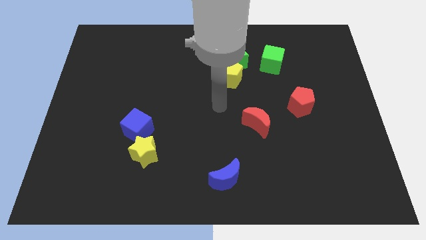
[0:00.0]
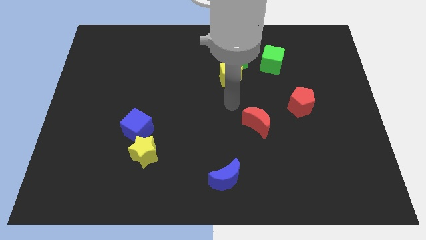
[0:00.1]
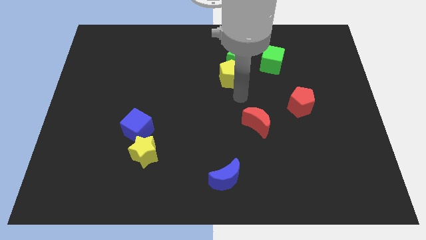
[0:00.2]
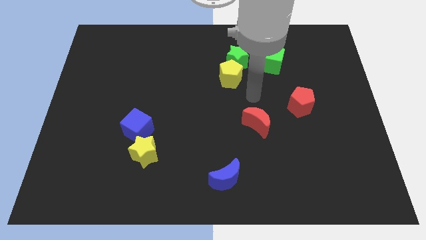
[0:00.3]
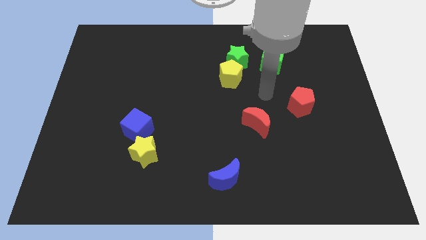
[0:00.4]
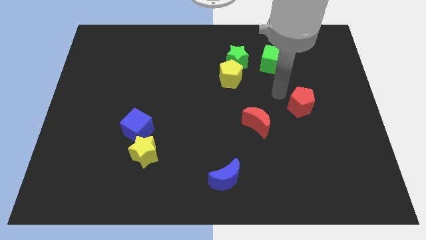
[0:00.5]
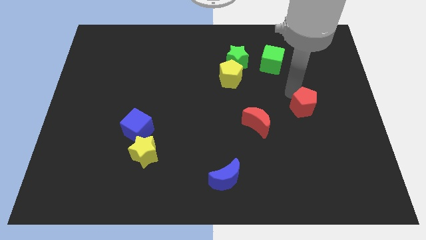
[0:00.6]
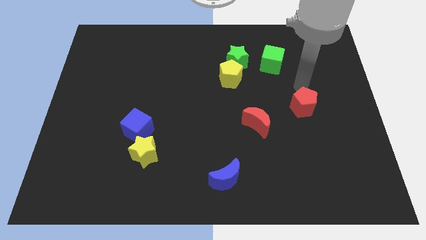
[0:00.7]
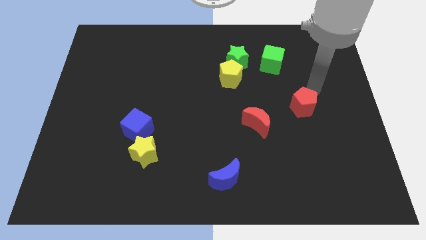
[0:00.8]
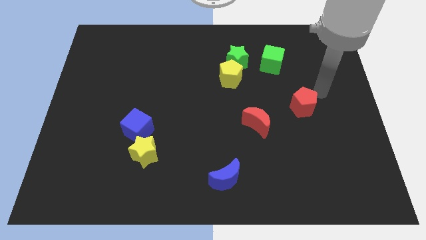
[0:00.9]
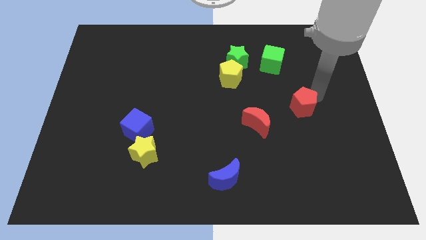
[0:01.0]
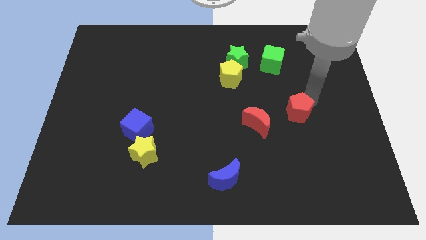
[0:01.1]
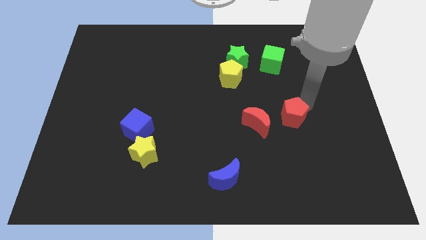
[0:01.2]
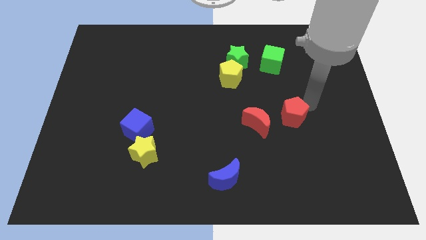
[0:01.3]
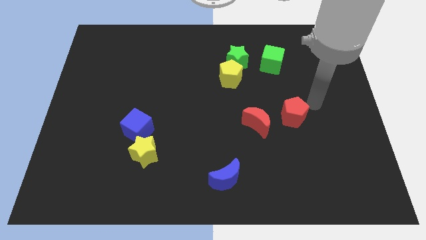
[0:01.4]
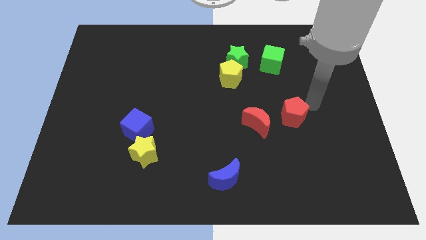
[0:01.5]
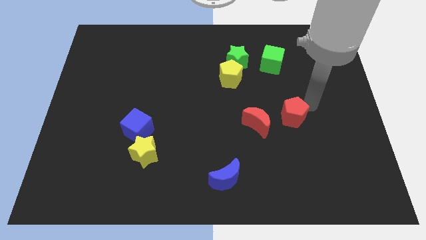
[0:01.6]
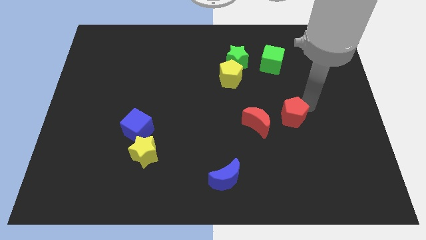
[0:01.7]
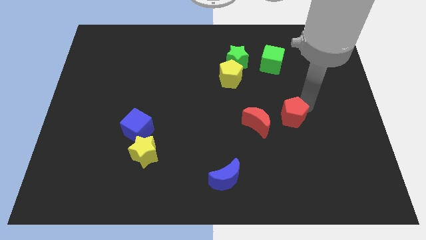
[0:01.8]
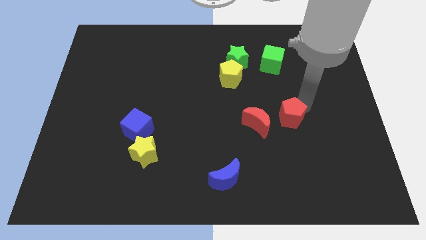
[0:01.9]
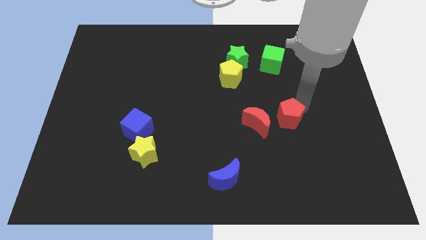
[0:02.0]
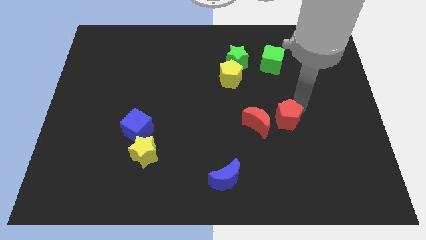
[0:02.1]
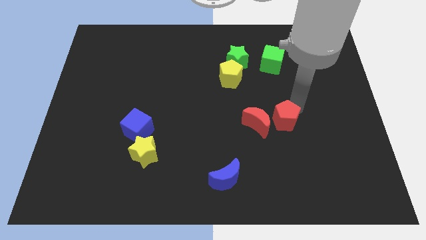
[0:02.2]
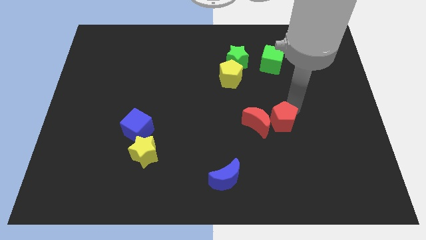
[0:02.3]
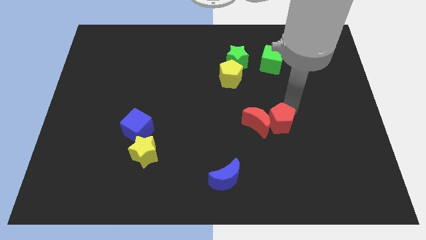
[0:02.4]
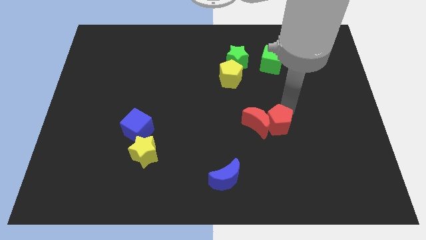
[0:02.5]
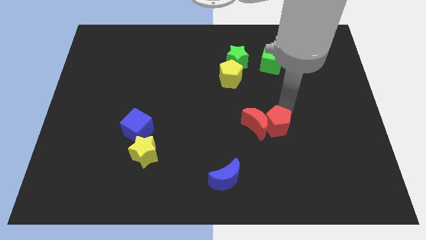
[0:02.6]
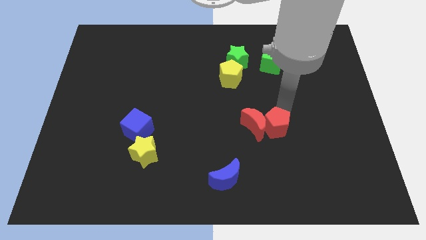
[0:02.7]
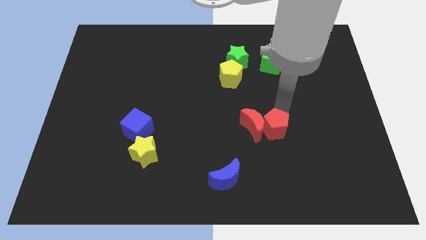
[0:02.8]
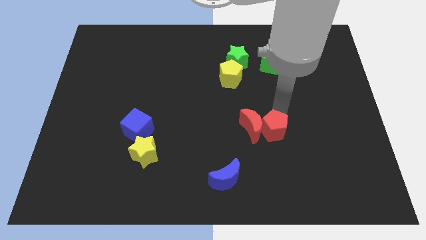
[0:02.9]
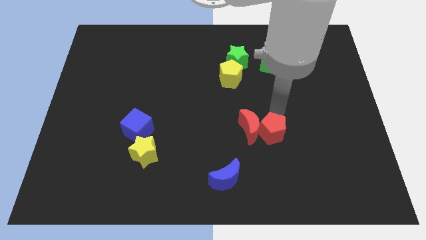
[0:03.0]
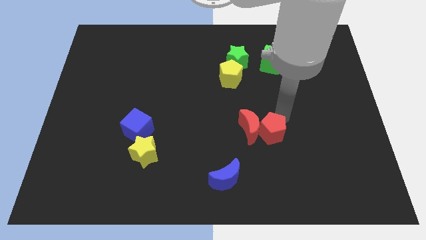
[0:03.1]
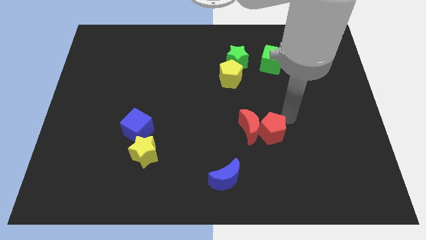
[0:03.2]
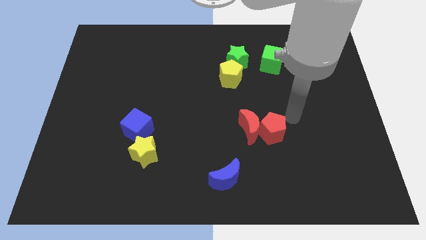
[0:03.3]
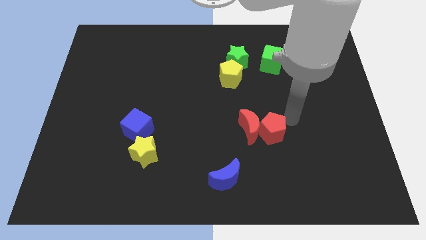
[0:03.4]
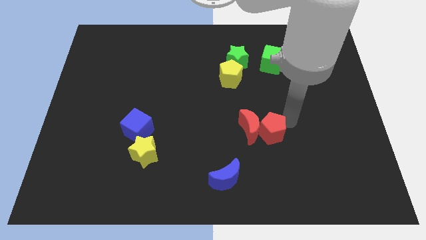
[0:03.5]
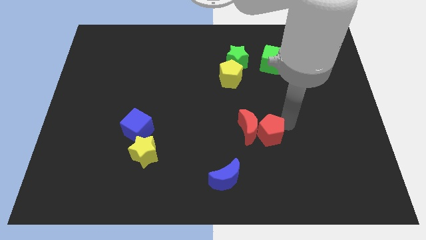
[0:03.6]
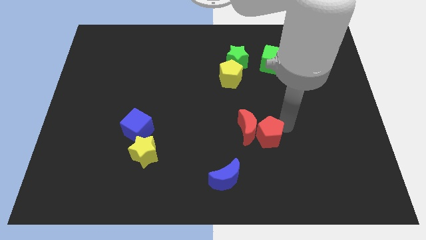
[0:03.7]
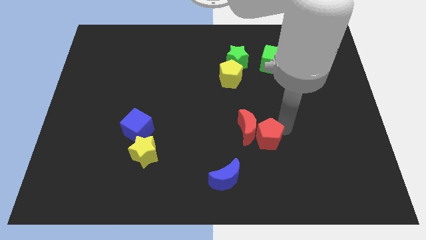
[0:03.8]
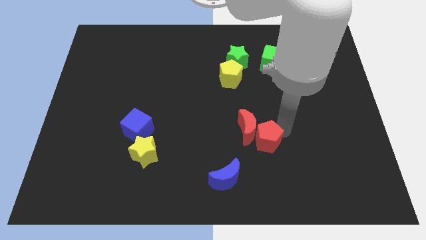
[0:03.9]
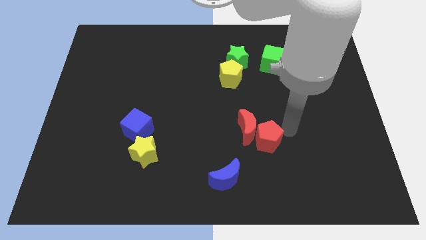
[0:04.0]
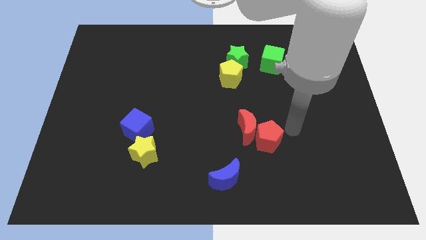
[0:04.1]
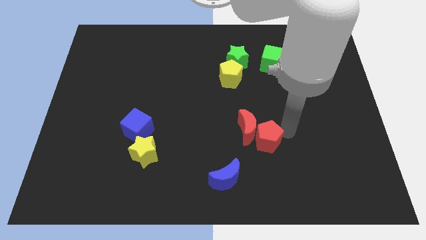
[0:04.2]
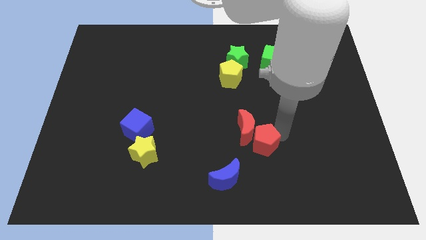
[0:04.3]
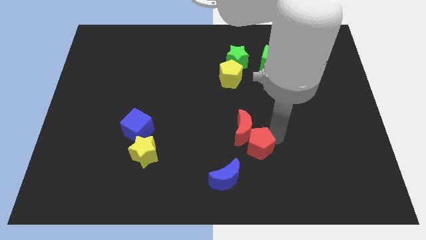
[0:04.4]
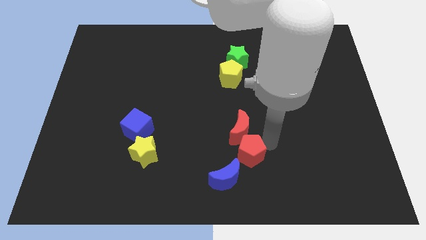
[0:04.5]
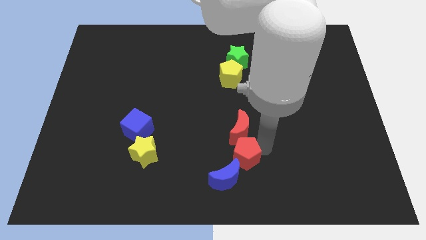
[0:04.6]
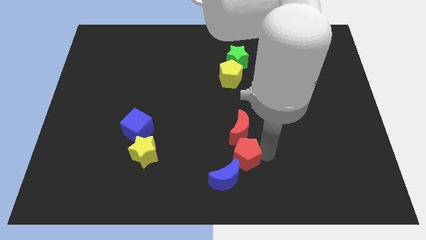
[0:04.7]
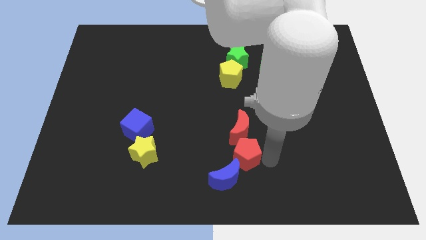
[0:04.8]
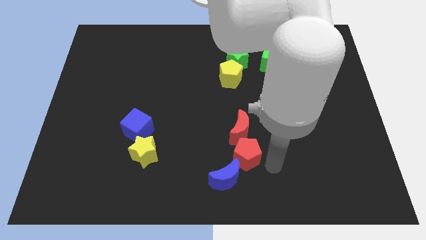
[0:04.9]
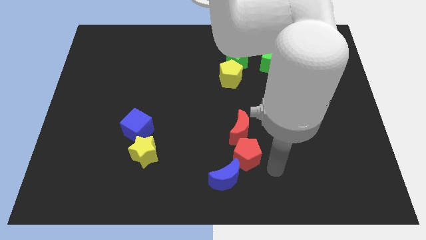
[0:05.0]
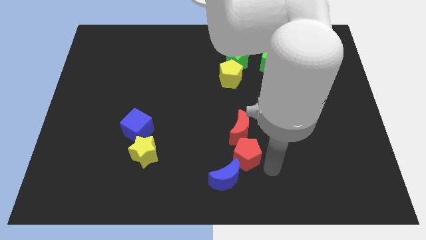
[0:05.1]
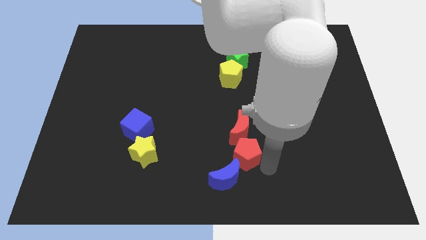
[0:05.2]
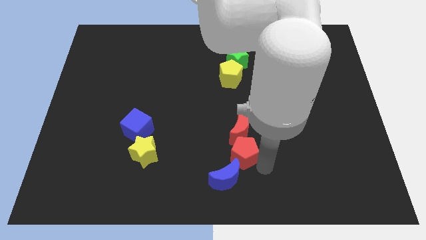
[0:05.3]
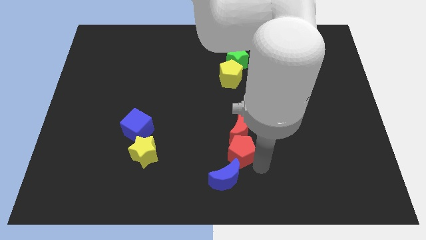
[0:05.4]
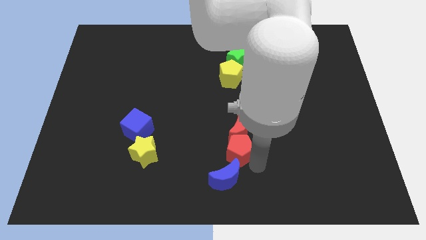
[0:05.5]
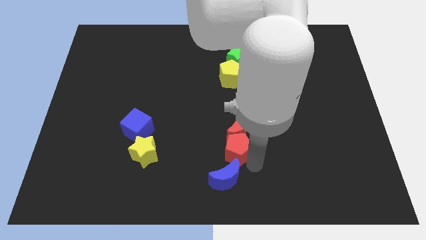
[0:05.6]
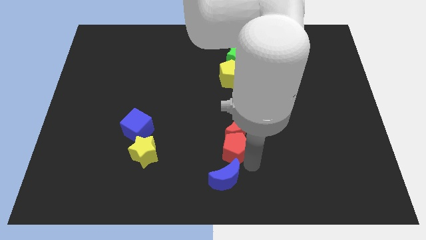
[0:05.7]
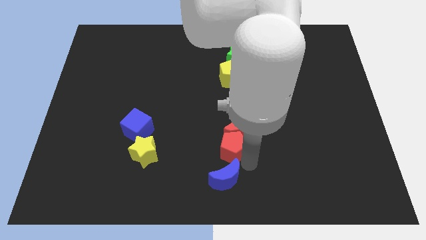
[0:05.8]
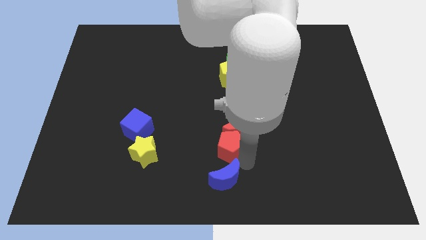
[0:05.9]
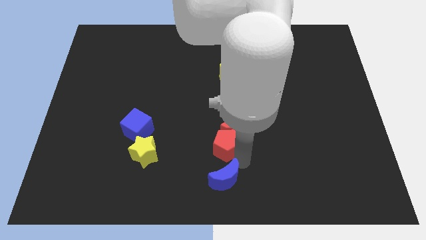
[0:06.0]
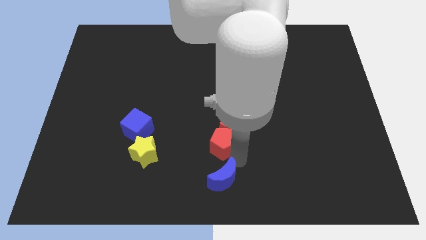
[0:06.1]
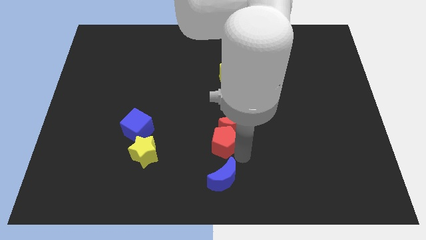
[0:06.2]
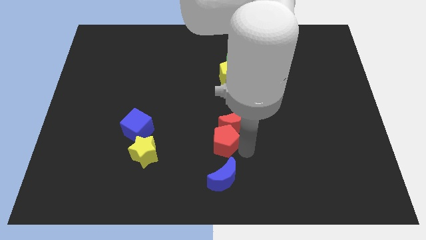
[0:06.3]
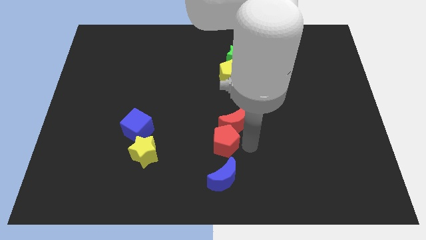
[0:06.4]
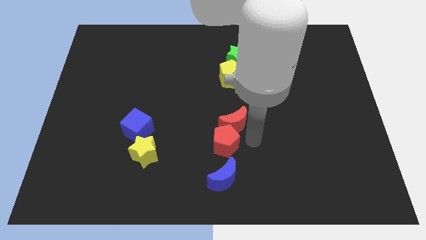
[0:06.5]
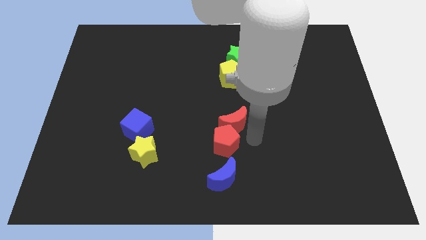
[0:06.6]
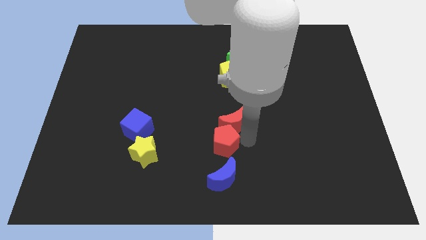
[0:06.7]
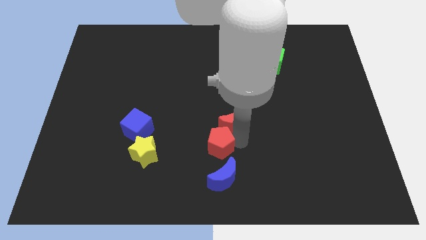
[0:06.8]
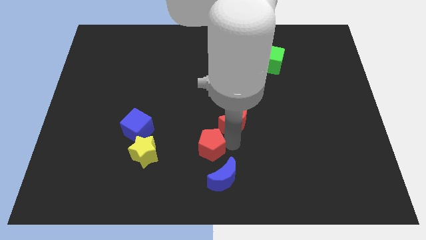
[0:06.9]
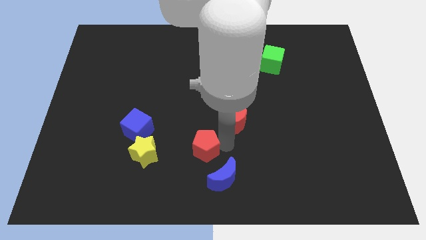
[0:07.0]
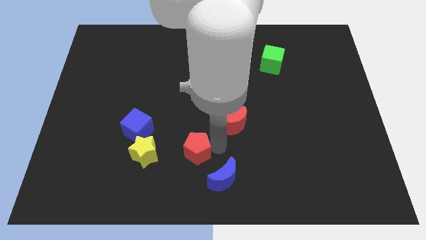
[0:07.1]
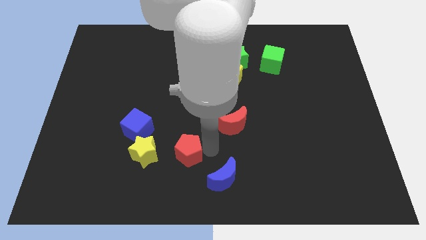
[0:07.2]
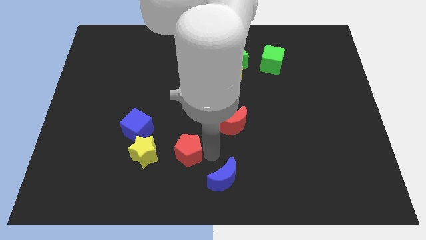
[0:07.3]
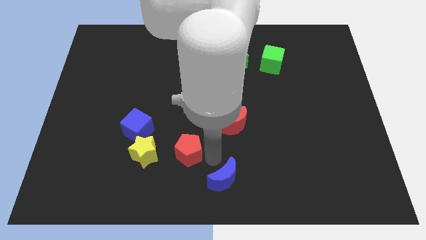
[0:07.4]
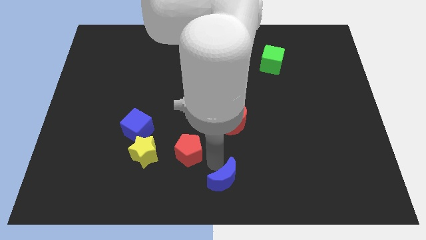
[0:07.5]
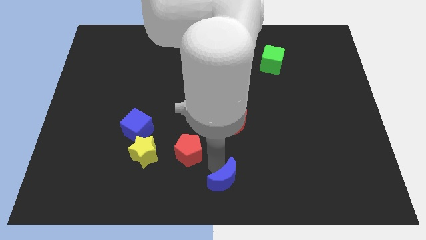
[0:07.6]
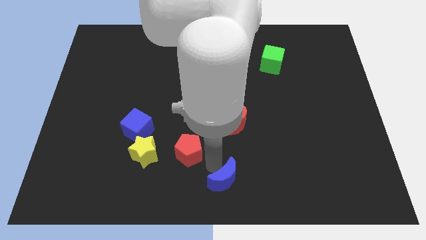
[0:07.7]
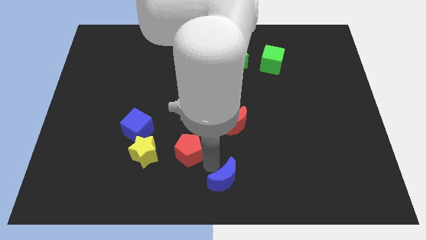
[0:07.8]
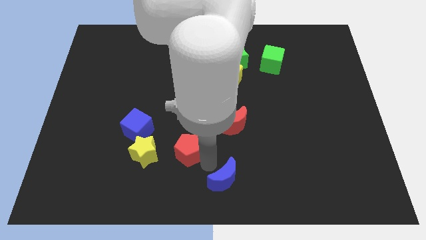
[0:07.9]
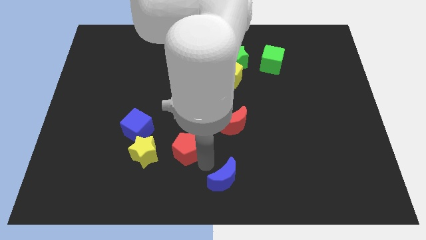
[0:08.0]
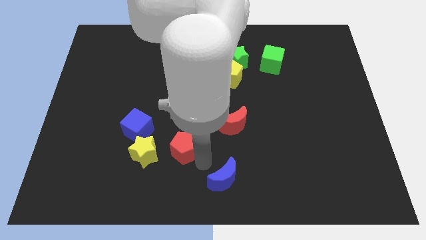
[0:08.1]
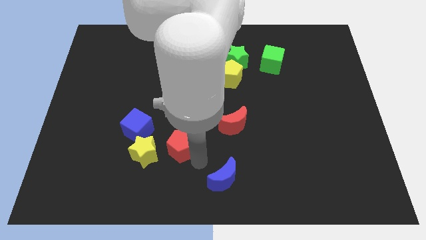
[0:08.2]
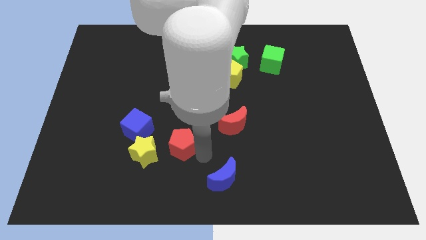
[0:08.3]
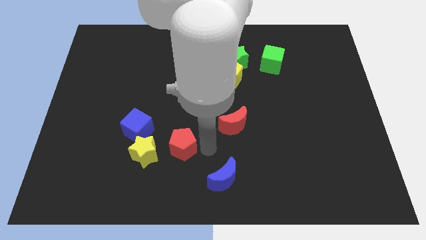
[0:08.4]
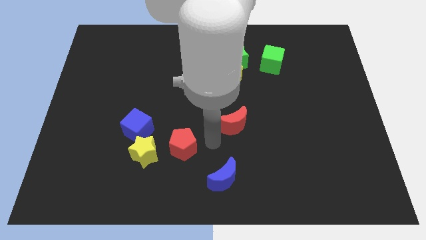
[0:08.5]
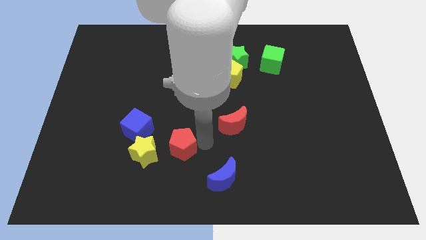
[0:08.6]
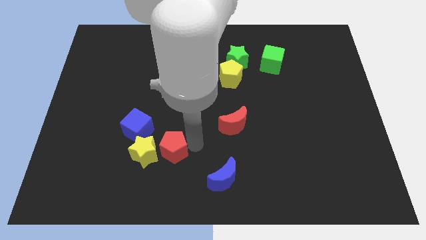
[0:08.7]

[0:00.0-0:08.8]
move the red pentagon towards the yellow star
